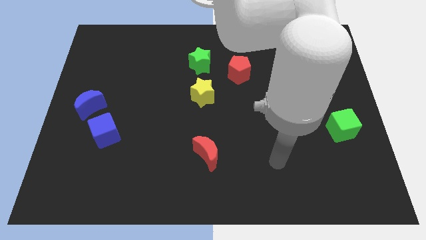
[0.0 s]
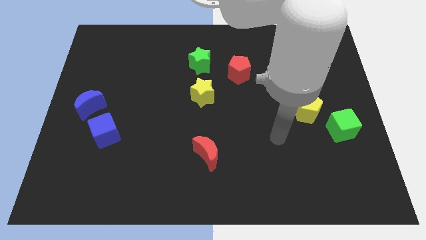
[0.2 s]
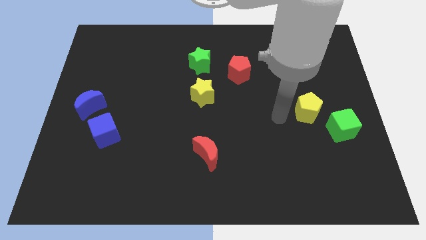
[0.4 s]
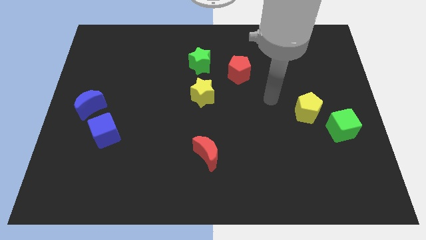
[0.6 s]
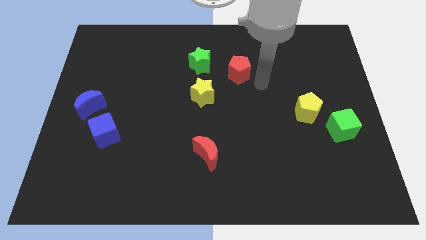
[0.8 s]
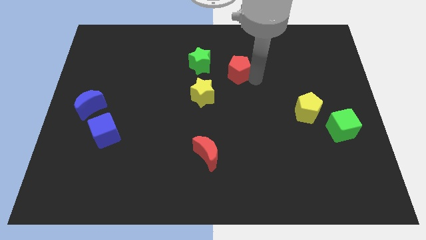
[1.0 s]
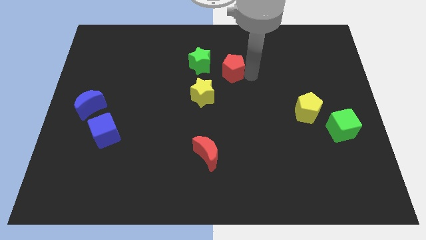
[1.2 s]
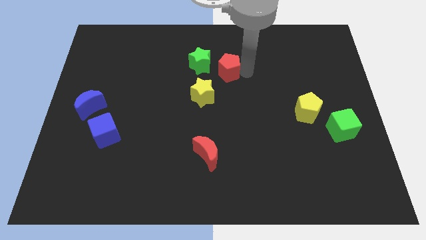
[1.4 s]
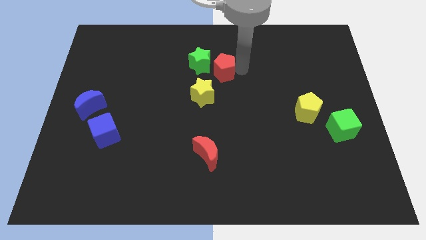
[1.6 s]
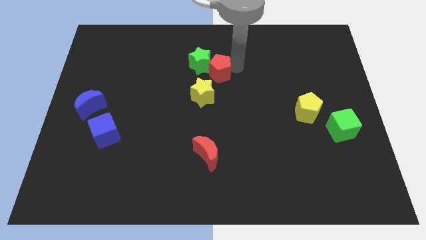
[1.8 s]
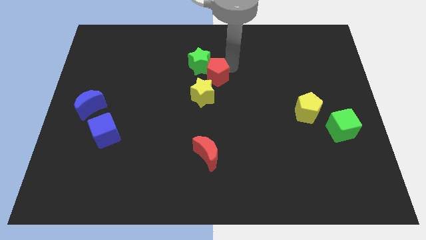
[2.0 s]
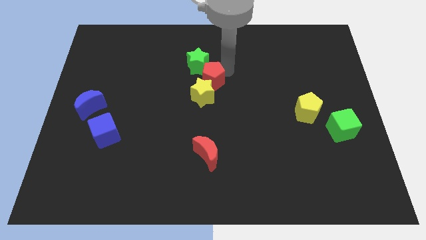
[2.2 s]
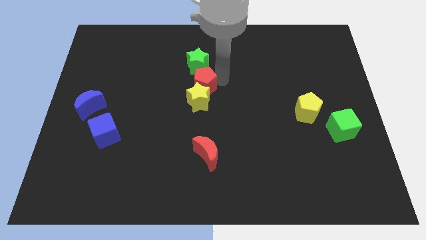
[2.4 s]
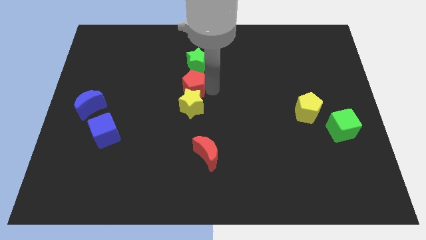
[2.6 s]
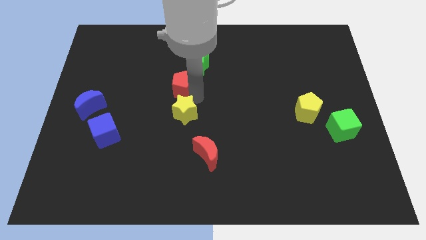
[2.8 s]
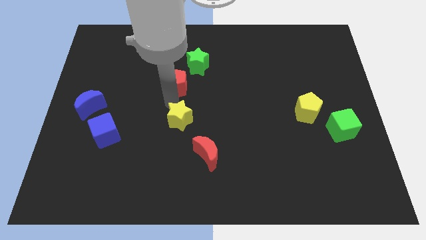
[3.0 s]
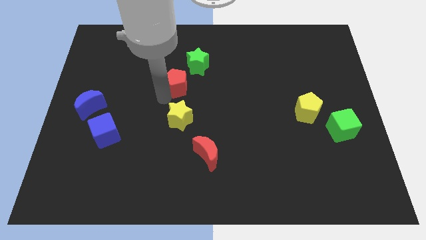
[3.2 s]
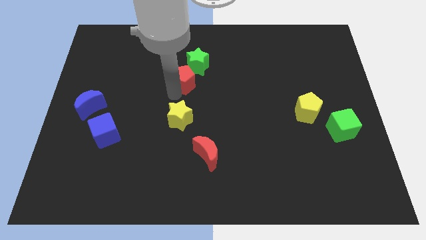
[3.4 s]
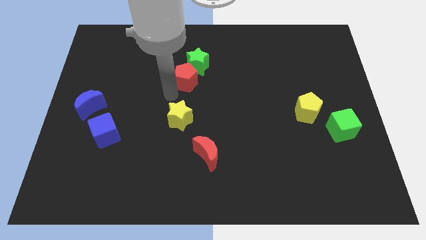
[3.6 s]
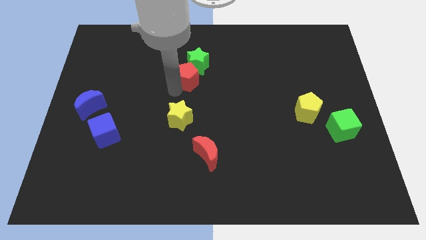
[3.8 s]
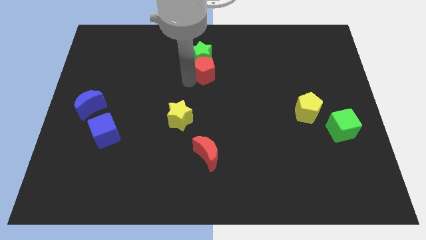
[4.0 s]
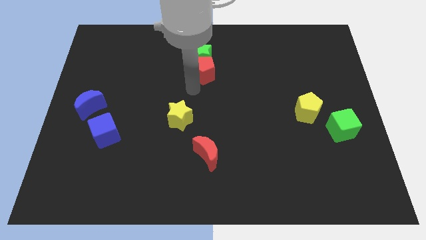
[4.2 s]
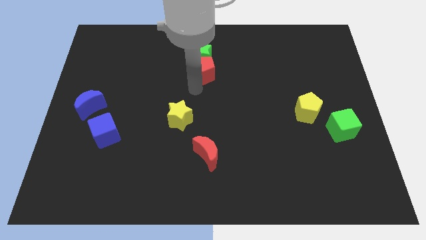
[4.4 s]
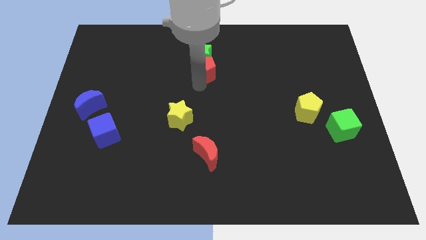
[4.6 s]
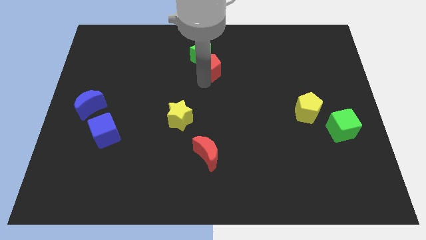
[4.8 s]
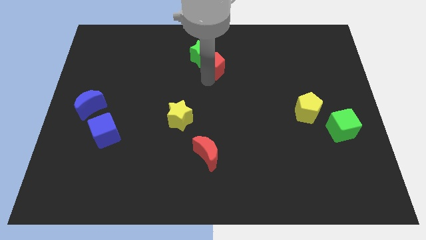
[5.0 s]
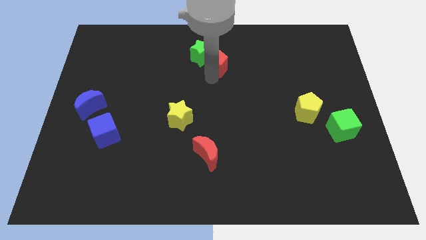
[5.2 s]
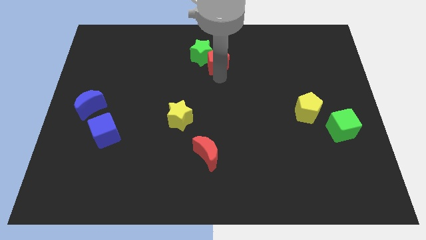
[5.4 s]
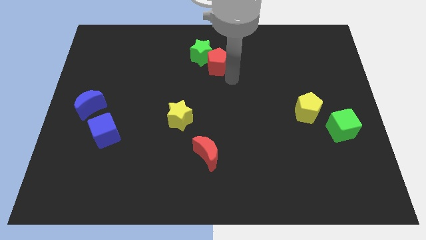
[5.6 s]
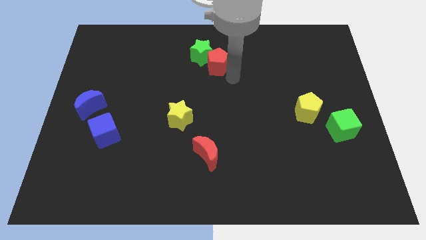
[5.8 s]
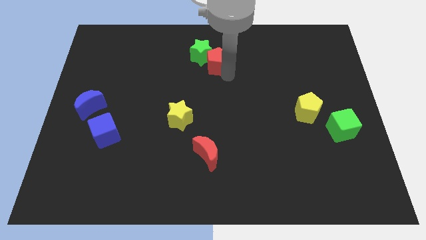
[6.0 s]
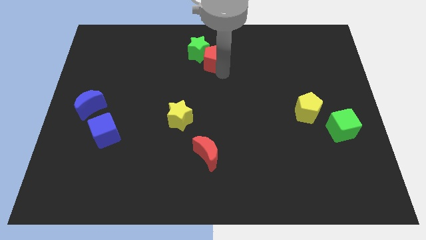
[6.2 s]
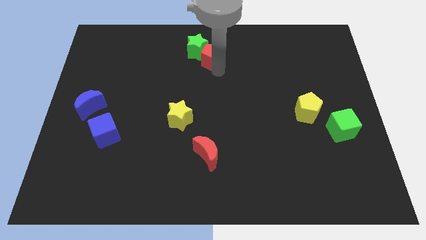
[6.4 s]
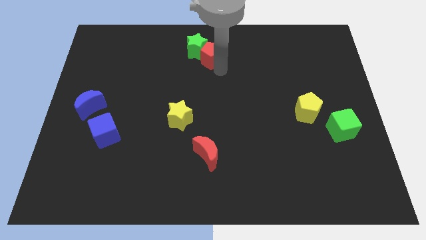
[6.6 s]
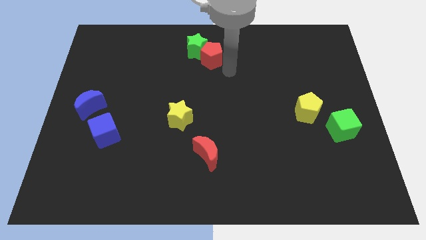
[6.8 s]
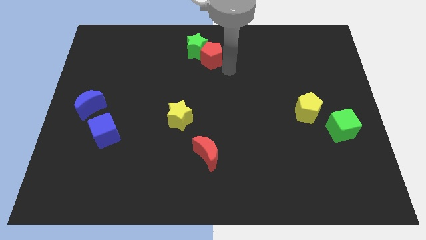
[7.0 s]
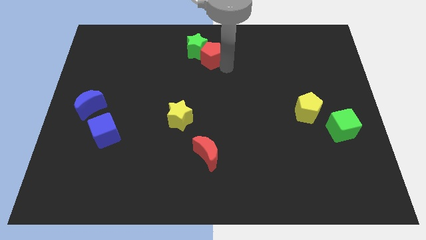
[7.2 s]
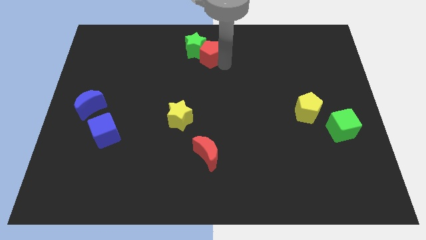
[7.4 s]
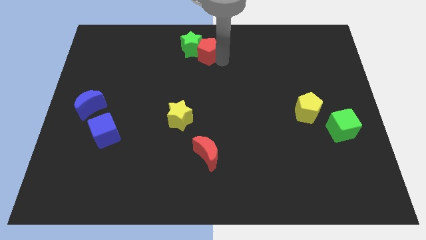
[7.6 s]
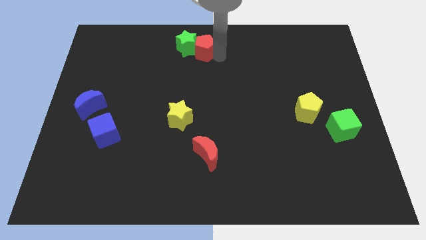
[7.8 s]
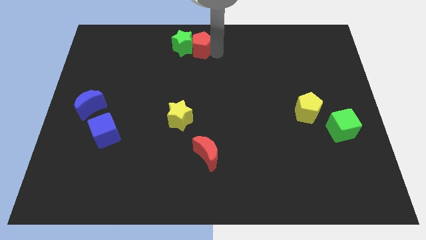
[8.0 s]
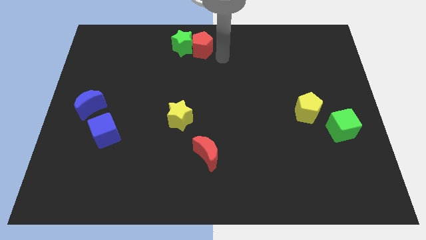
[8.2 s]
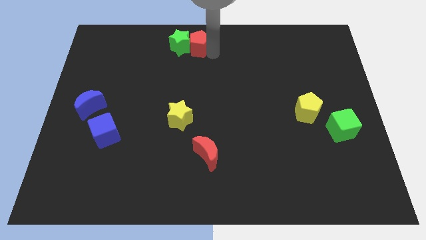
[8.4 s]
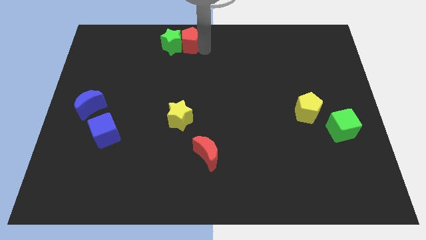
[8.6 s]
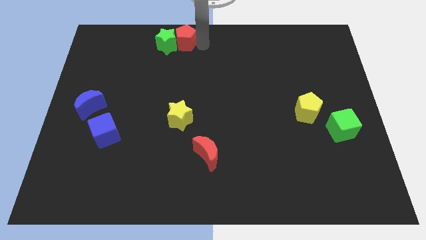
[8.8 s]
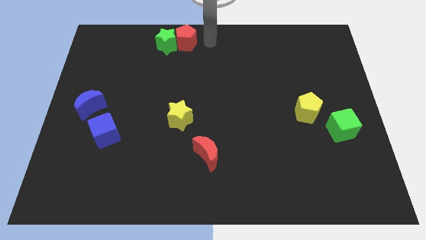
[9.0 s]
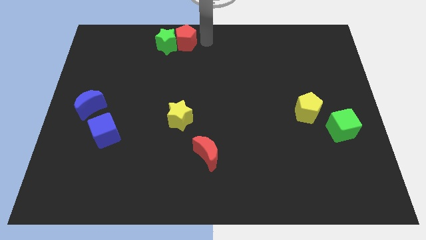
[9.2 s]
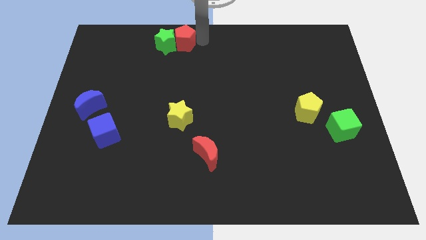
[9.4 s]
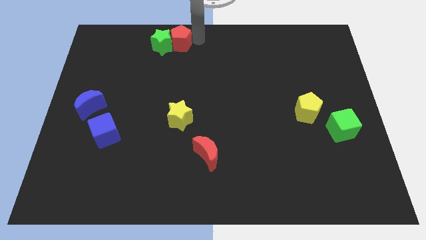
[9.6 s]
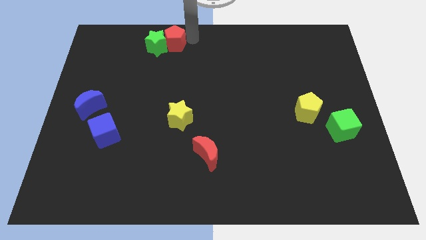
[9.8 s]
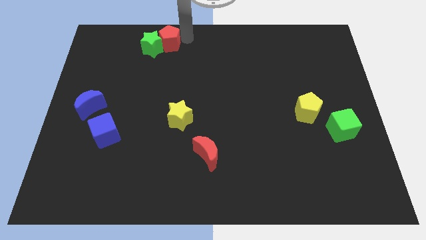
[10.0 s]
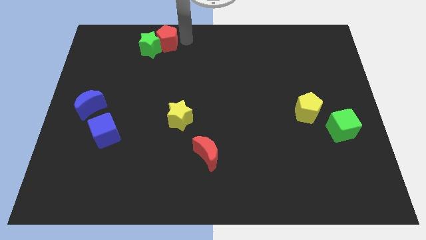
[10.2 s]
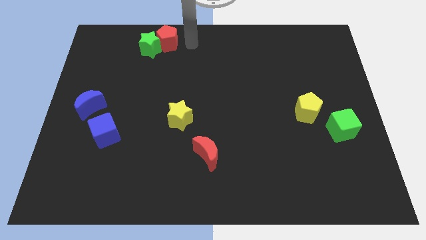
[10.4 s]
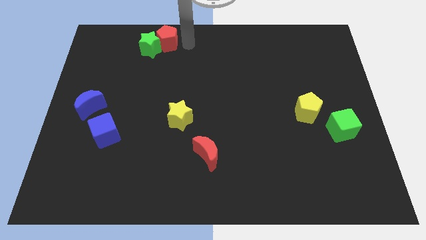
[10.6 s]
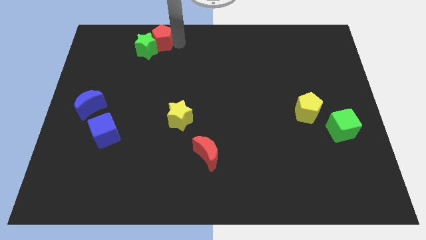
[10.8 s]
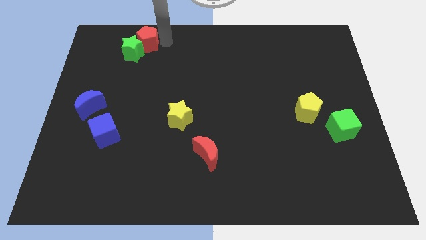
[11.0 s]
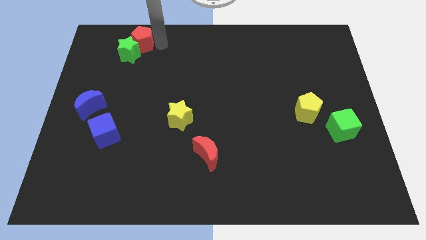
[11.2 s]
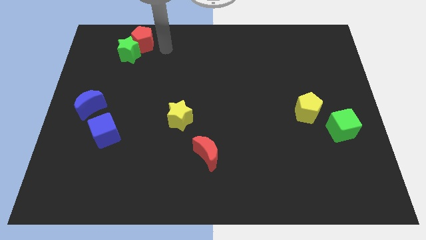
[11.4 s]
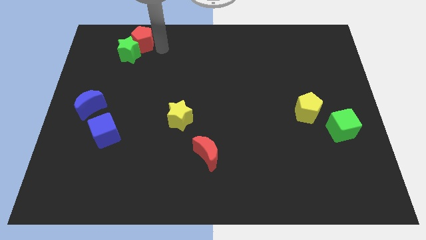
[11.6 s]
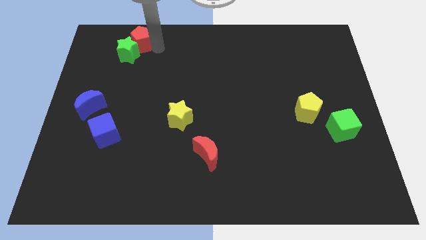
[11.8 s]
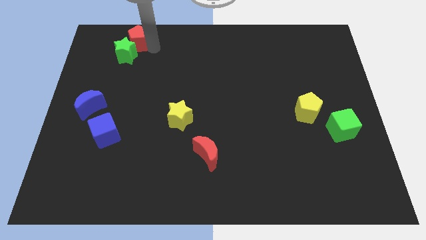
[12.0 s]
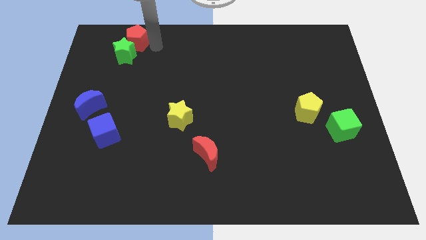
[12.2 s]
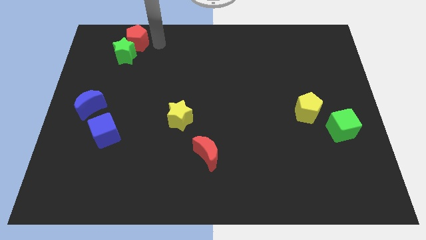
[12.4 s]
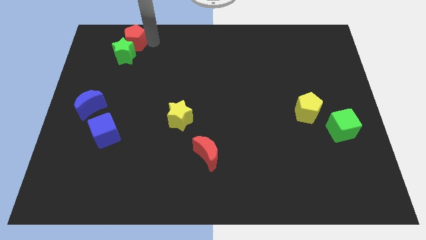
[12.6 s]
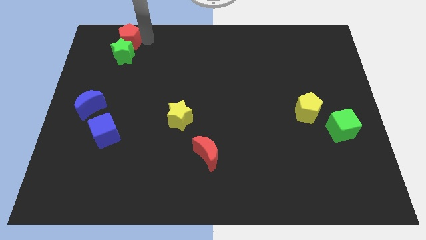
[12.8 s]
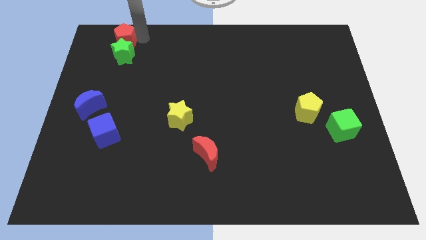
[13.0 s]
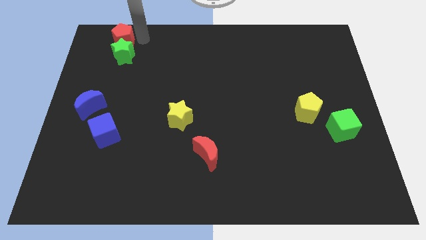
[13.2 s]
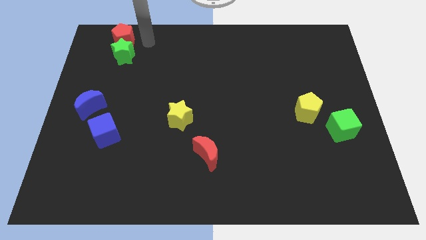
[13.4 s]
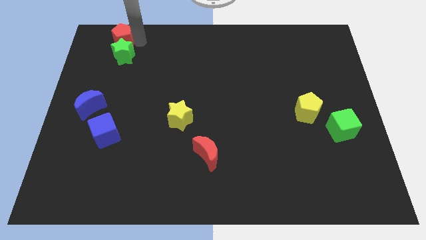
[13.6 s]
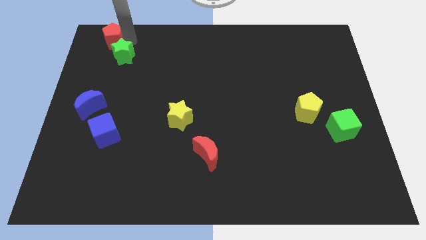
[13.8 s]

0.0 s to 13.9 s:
push the red pentagon to the top left corner
